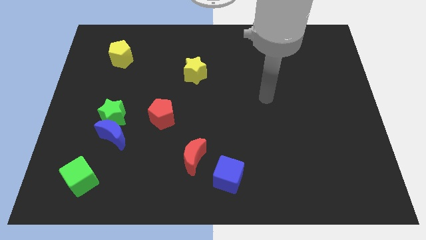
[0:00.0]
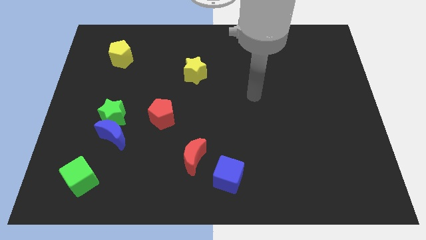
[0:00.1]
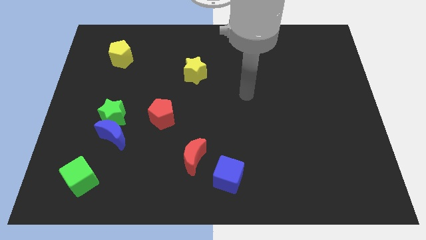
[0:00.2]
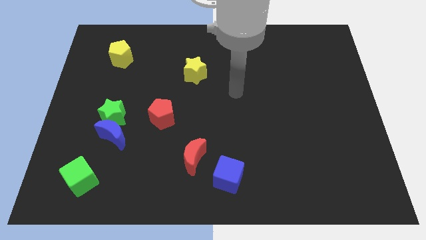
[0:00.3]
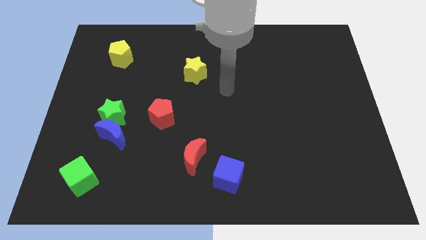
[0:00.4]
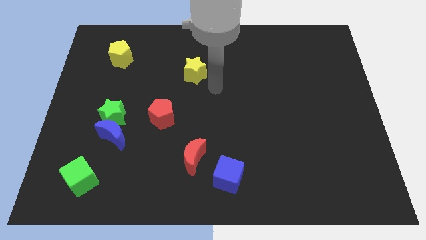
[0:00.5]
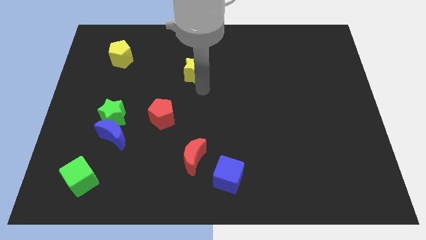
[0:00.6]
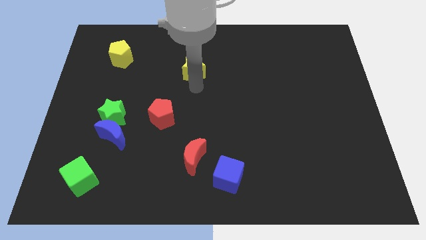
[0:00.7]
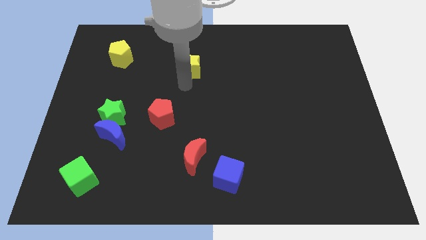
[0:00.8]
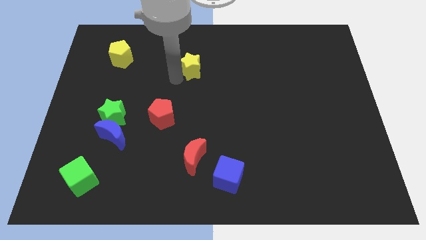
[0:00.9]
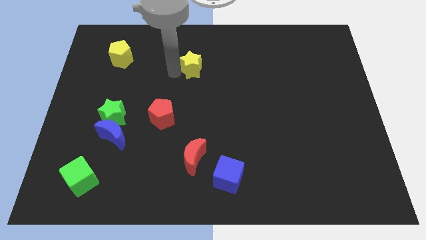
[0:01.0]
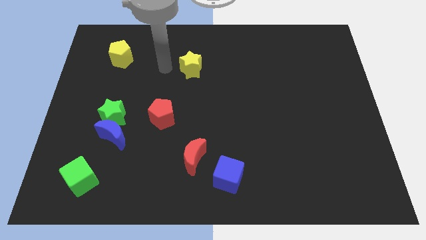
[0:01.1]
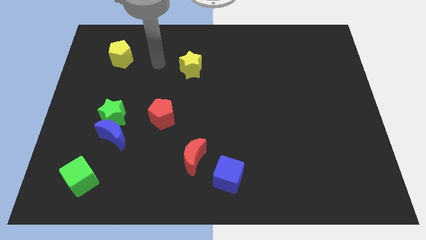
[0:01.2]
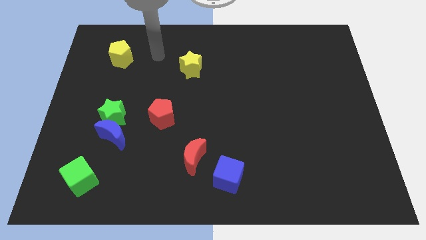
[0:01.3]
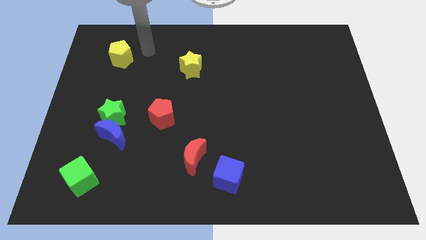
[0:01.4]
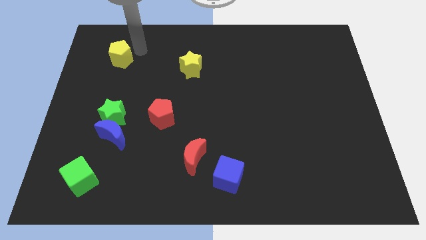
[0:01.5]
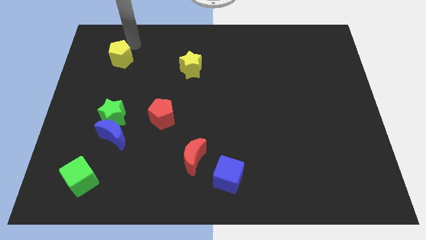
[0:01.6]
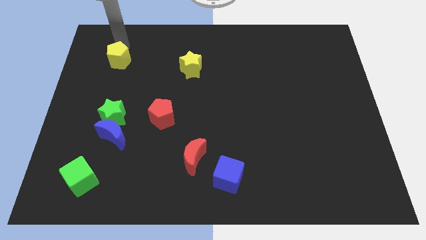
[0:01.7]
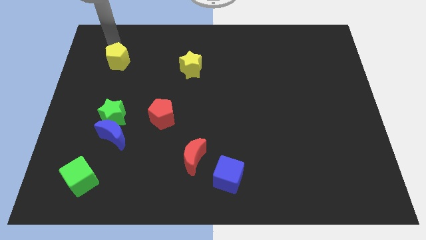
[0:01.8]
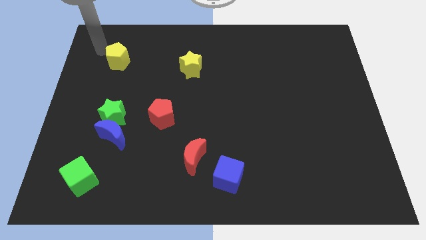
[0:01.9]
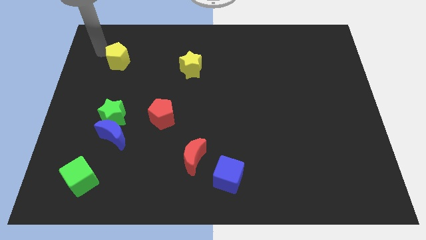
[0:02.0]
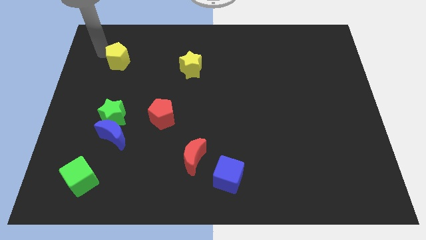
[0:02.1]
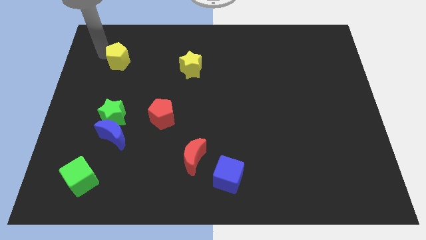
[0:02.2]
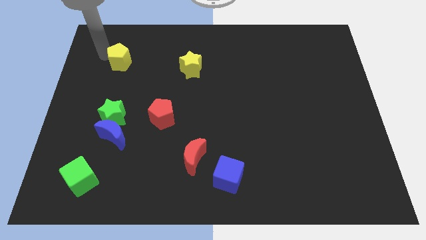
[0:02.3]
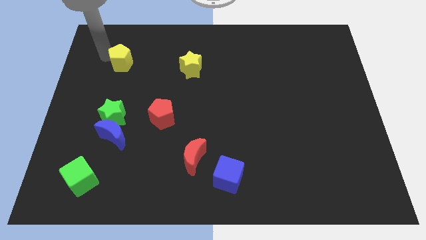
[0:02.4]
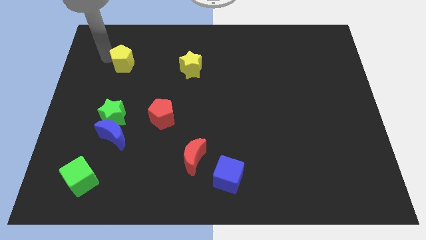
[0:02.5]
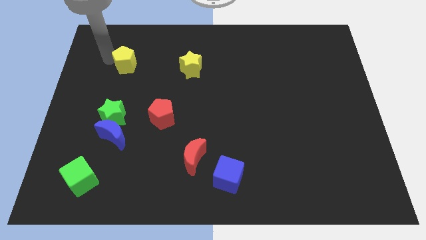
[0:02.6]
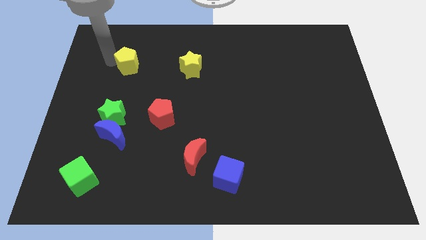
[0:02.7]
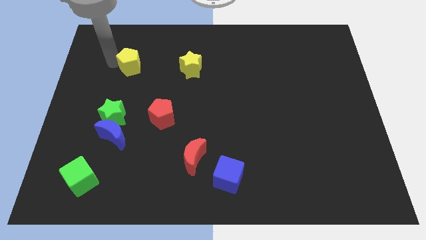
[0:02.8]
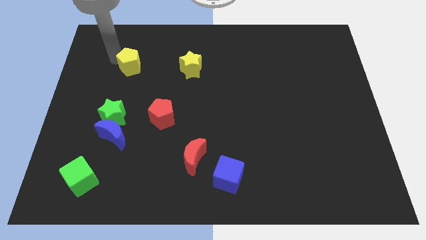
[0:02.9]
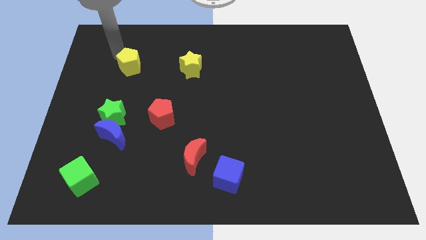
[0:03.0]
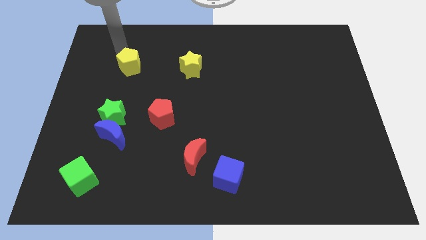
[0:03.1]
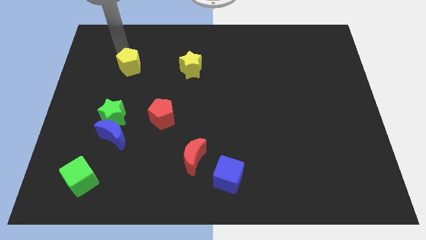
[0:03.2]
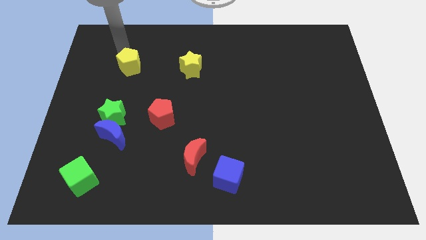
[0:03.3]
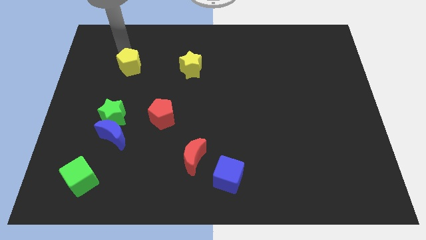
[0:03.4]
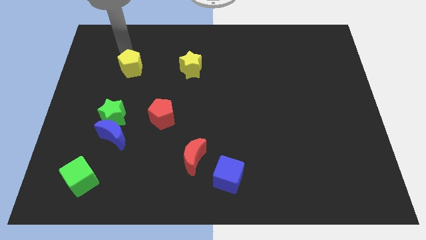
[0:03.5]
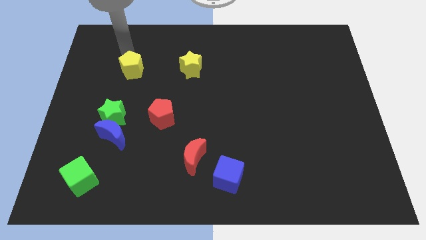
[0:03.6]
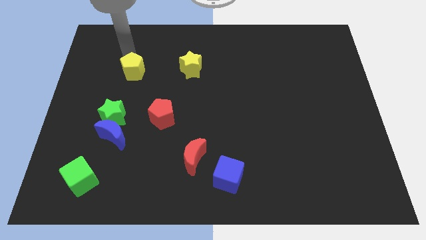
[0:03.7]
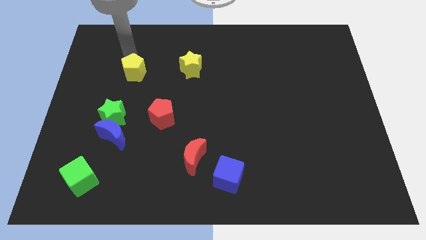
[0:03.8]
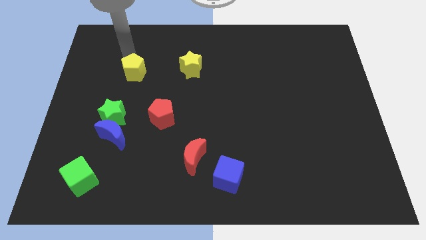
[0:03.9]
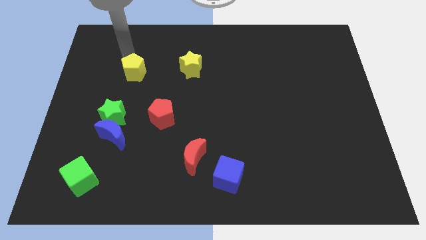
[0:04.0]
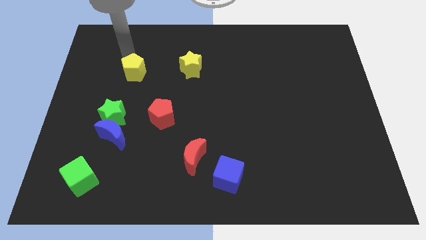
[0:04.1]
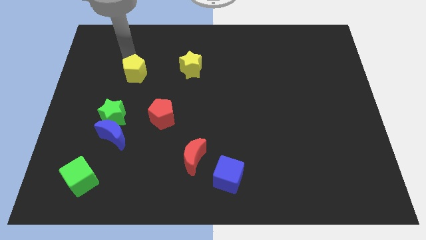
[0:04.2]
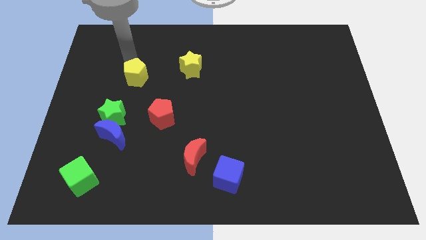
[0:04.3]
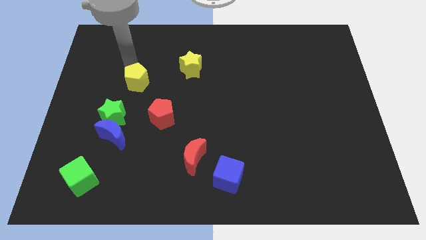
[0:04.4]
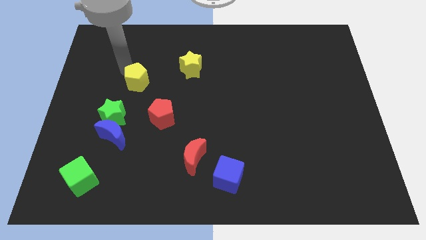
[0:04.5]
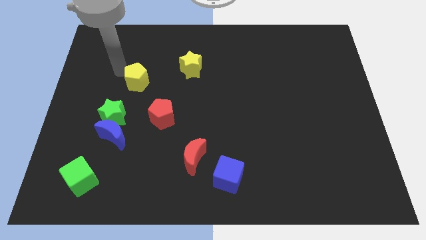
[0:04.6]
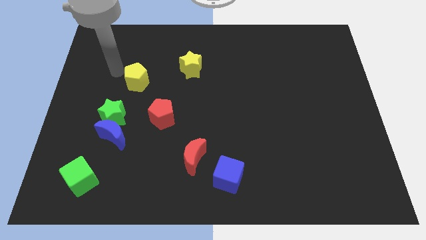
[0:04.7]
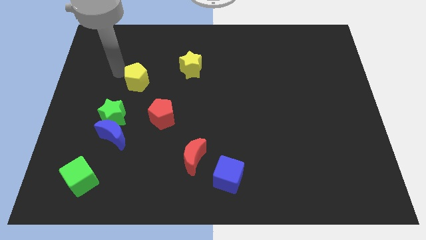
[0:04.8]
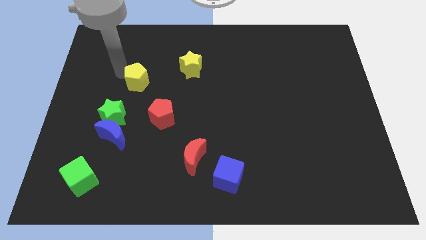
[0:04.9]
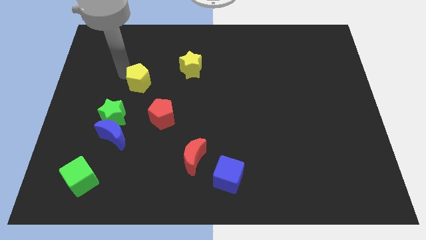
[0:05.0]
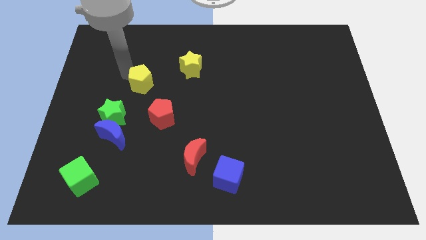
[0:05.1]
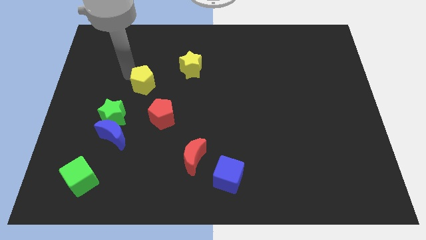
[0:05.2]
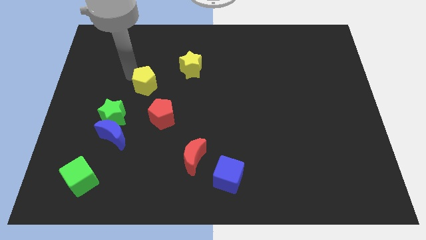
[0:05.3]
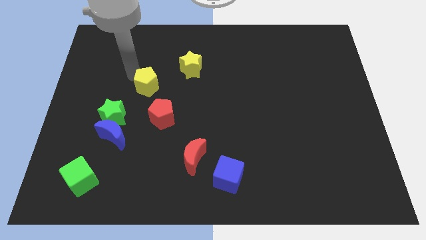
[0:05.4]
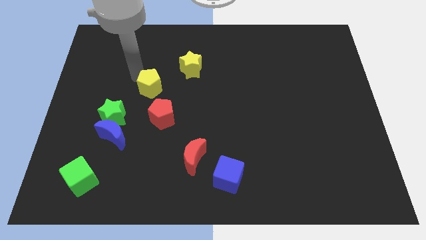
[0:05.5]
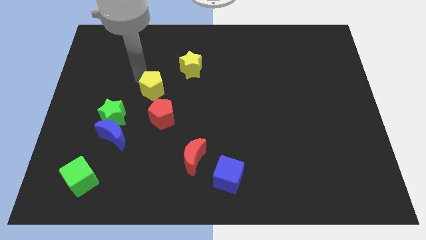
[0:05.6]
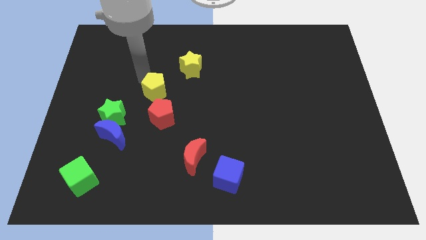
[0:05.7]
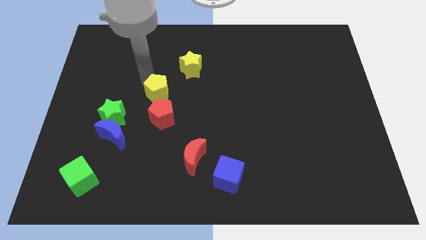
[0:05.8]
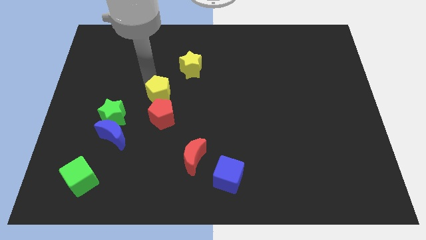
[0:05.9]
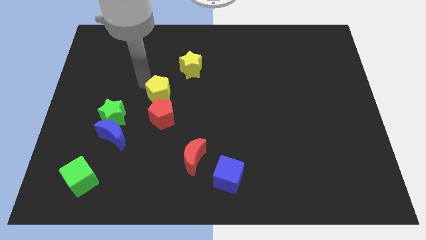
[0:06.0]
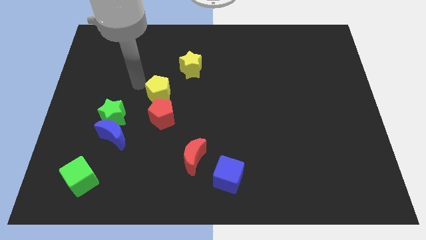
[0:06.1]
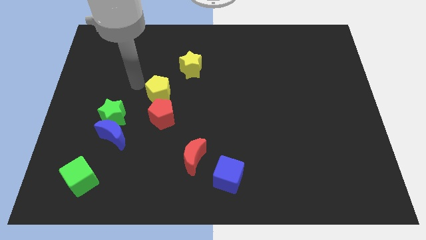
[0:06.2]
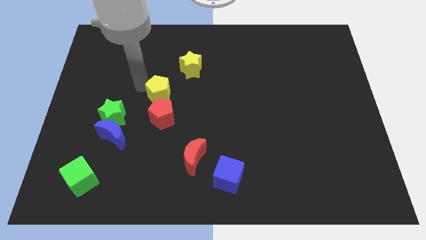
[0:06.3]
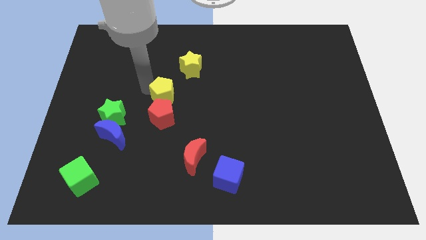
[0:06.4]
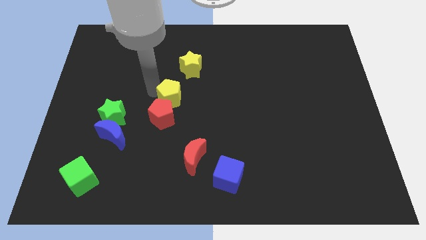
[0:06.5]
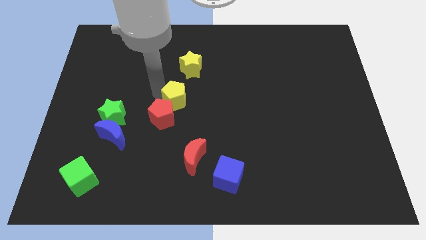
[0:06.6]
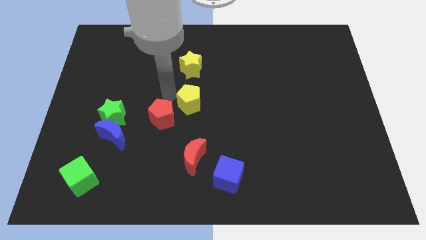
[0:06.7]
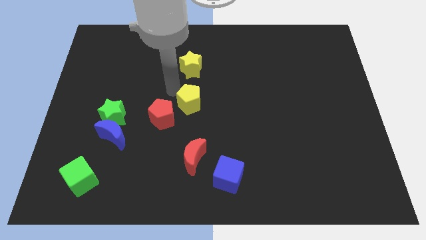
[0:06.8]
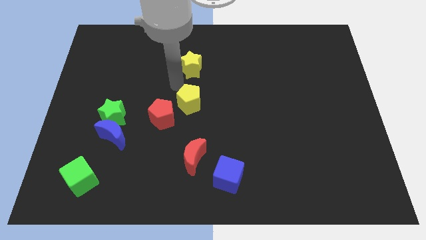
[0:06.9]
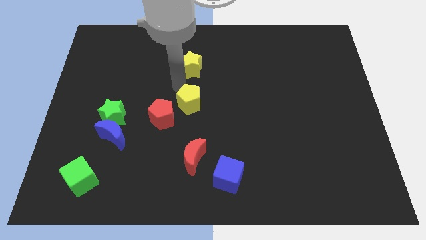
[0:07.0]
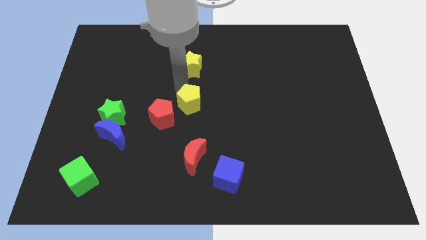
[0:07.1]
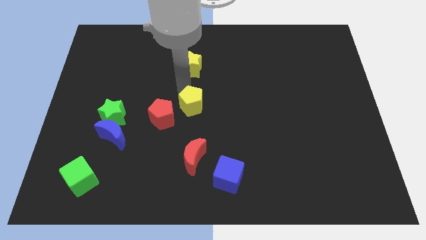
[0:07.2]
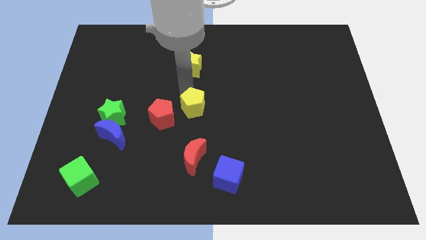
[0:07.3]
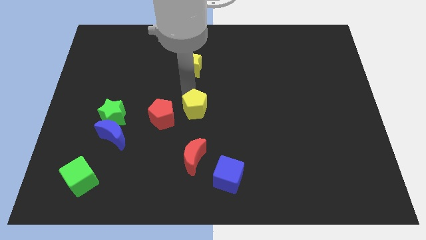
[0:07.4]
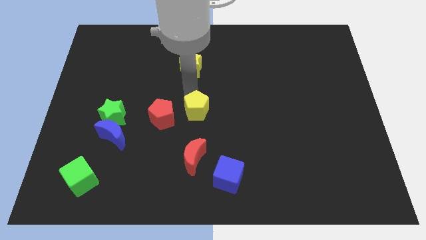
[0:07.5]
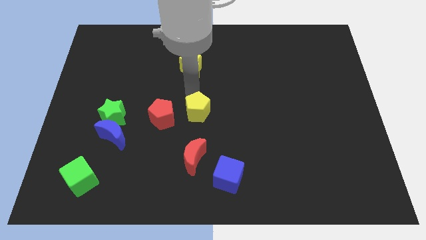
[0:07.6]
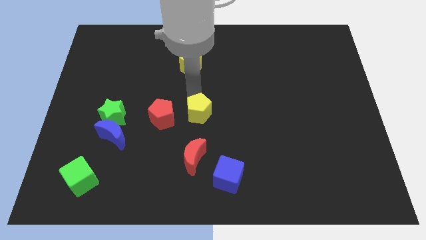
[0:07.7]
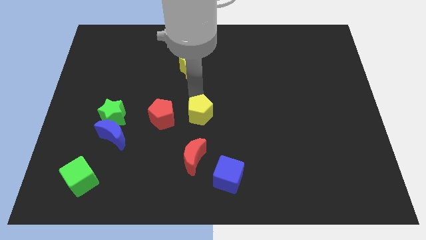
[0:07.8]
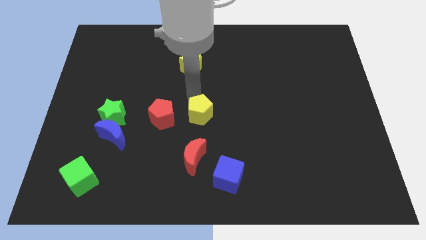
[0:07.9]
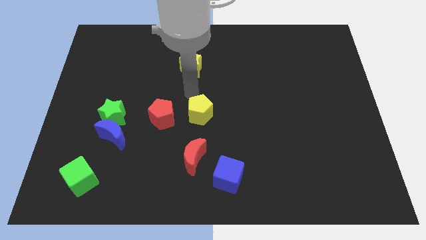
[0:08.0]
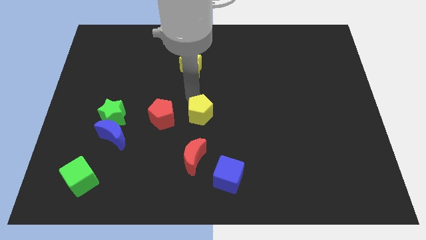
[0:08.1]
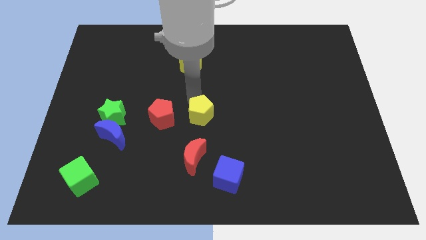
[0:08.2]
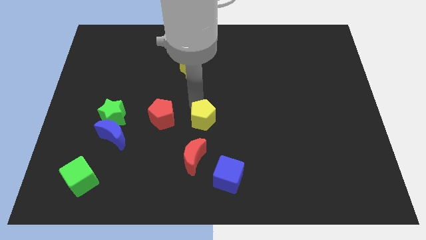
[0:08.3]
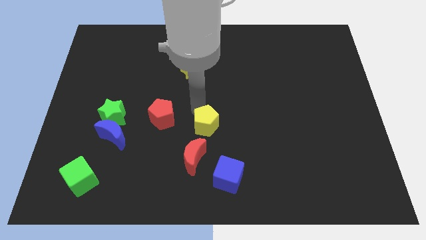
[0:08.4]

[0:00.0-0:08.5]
push the yellow pentagon diagonally up and to the right of the red moon
